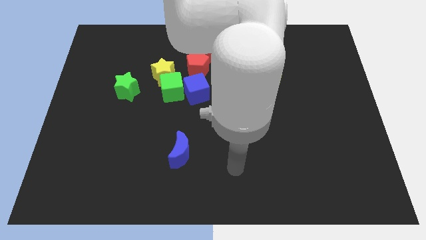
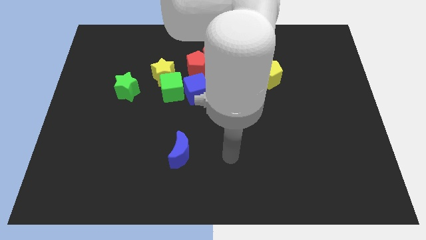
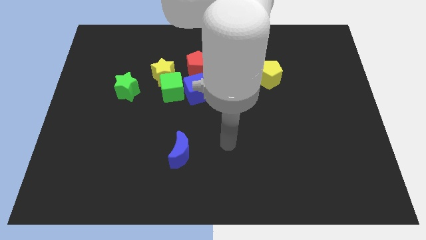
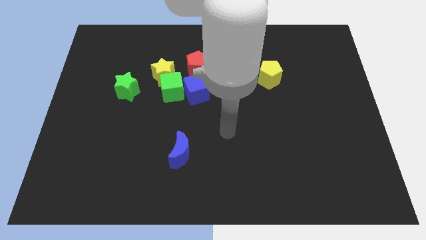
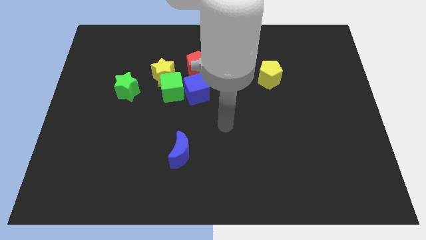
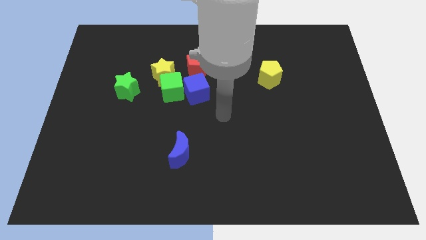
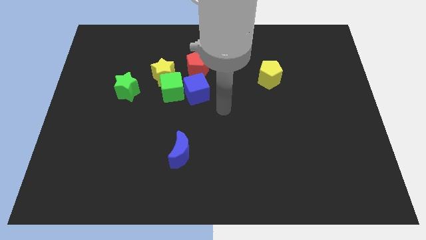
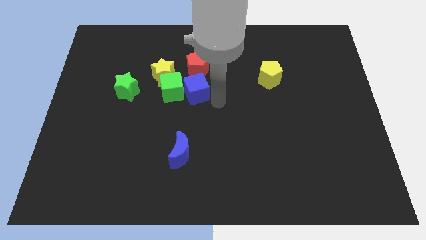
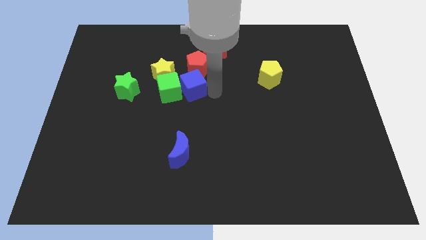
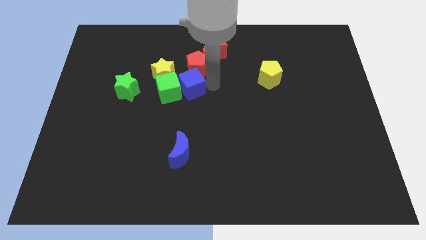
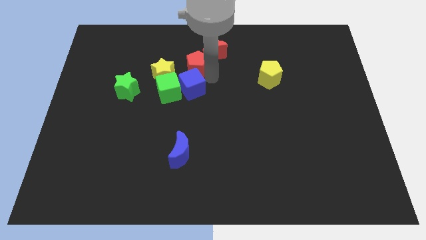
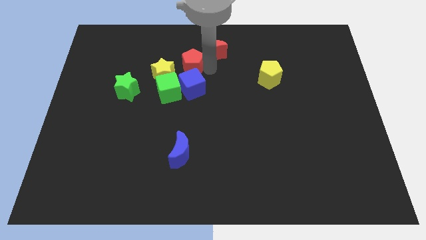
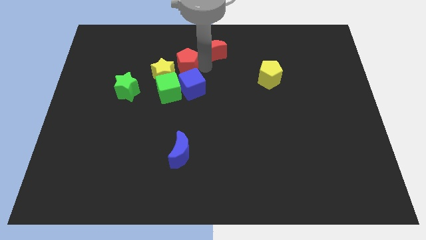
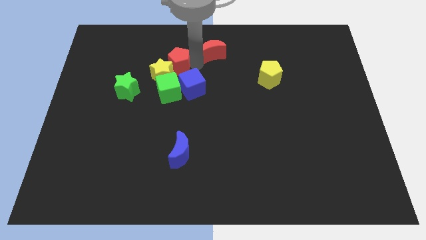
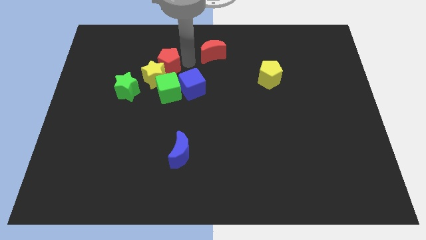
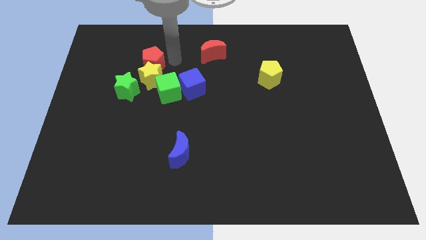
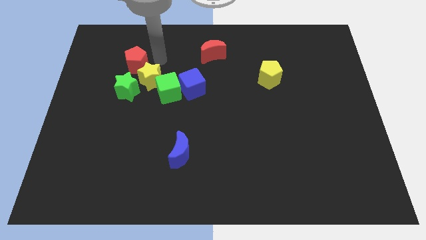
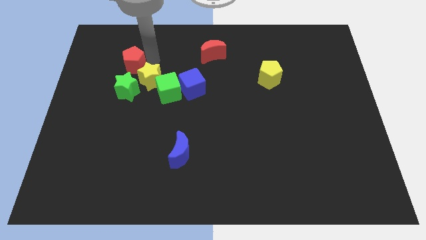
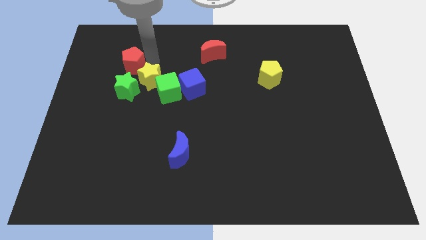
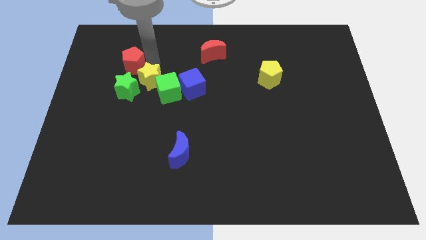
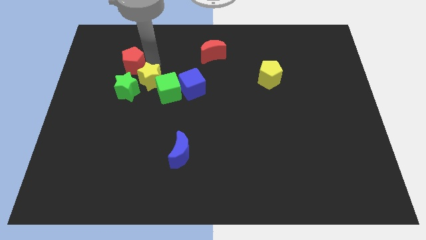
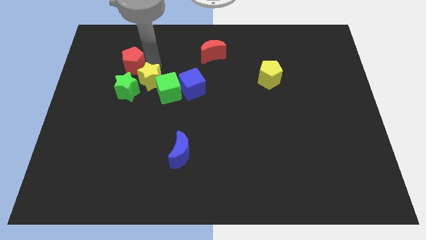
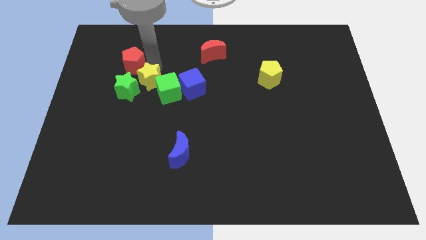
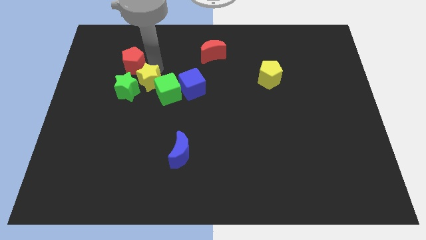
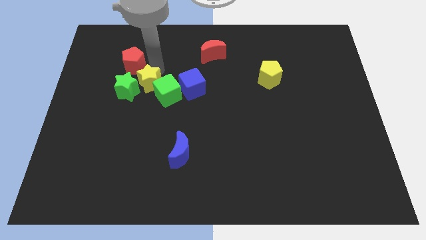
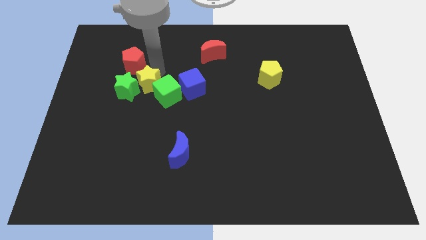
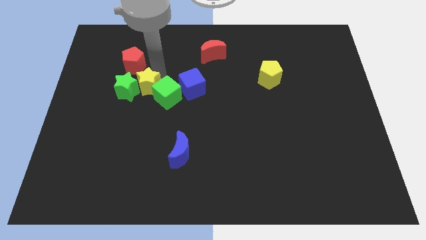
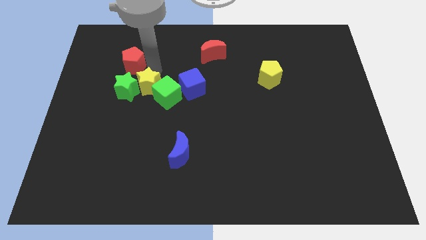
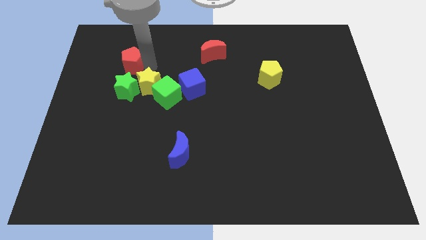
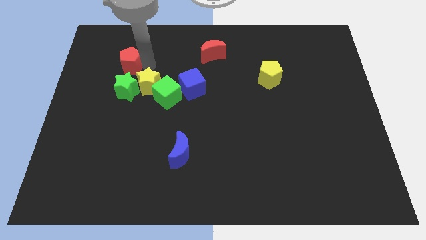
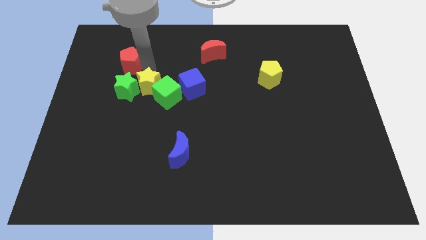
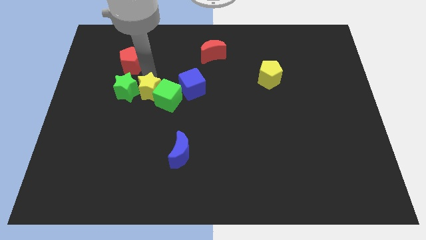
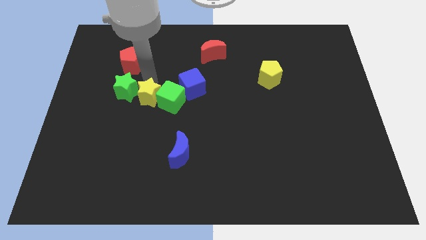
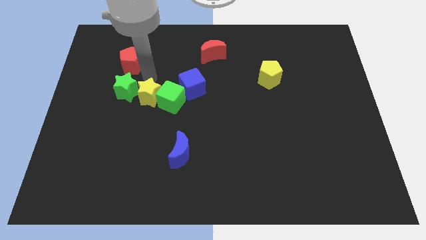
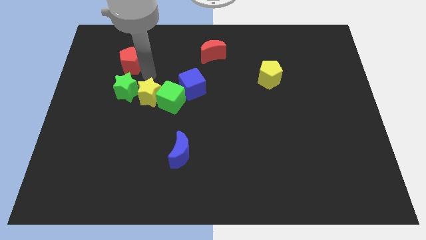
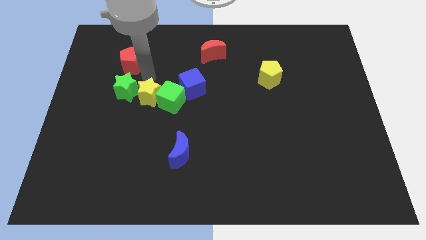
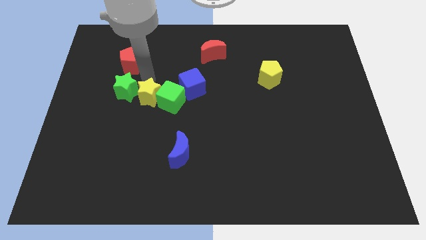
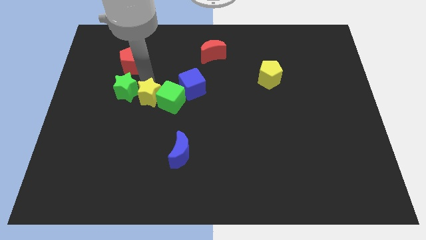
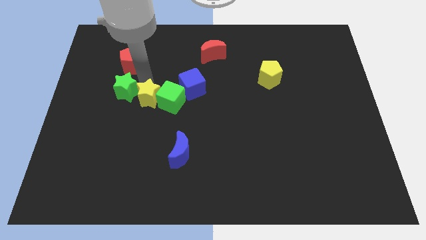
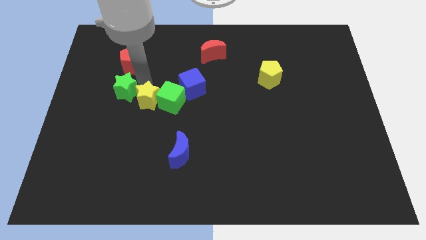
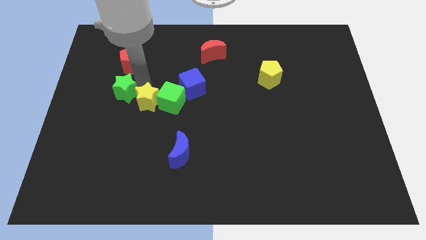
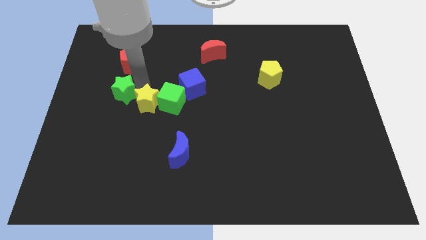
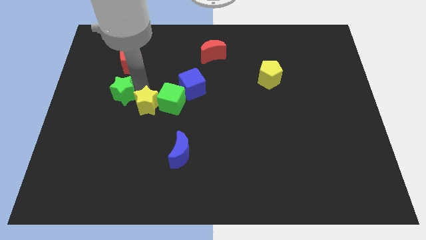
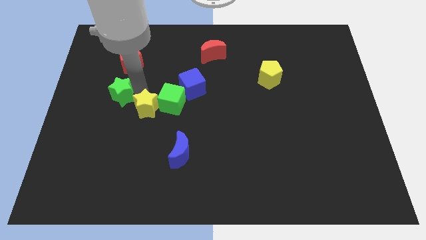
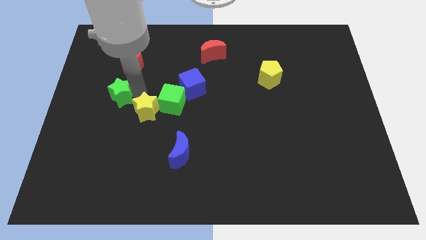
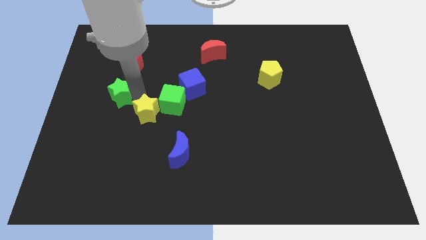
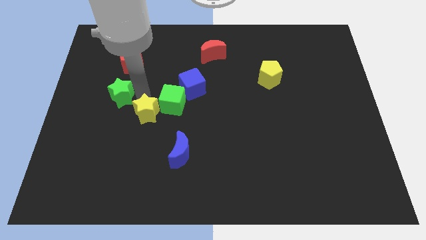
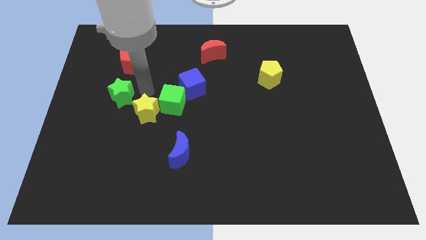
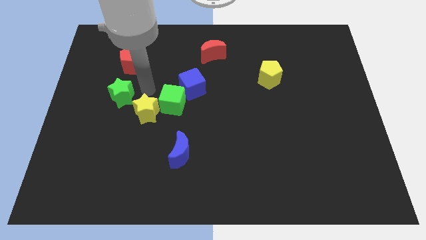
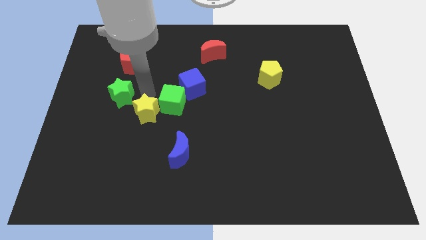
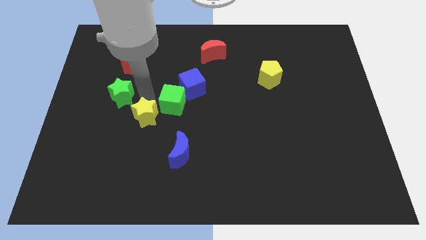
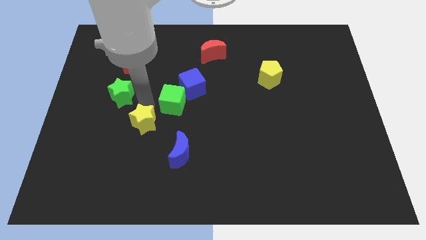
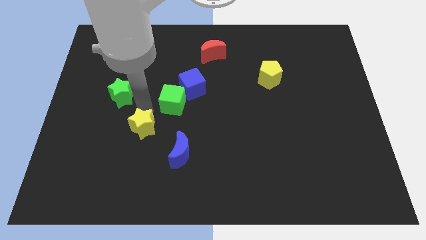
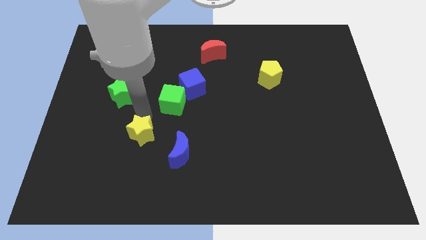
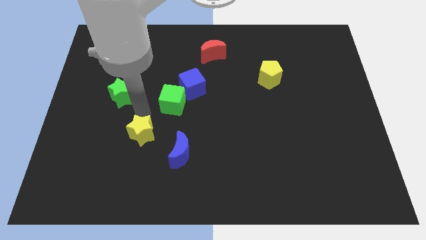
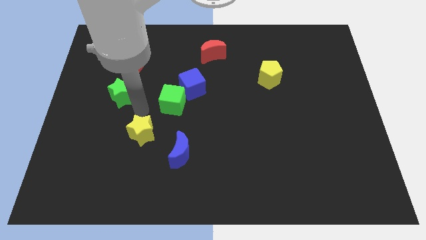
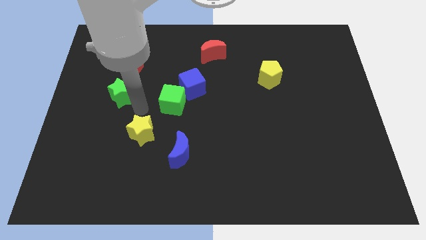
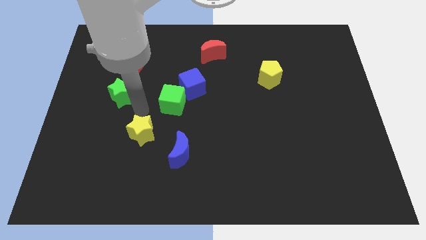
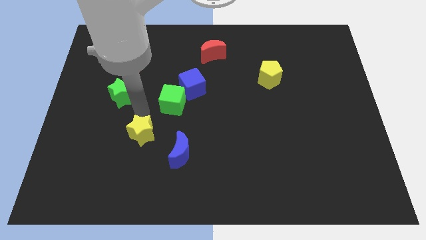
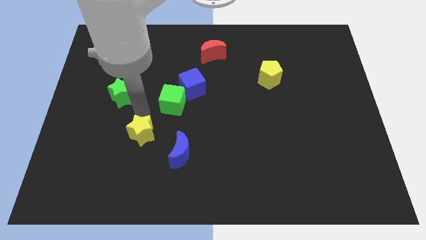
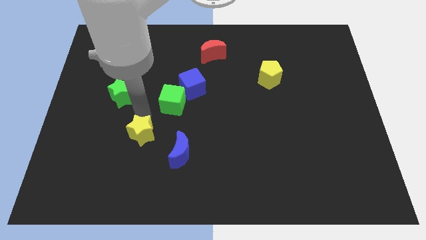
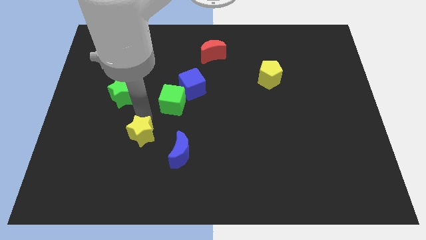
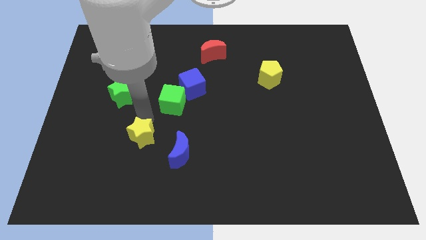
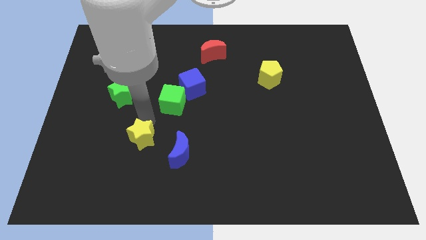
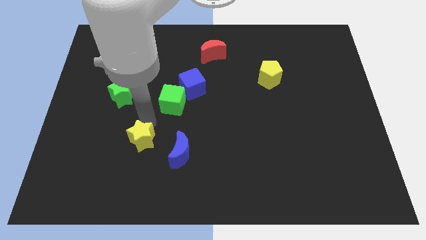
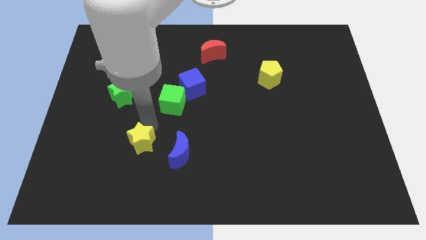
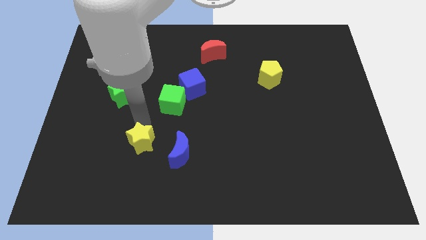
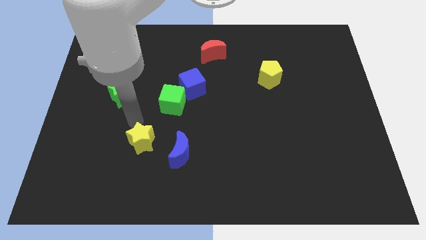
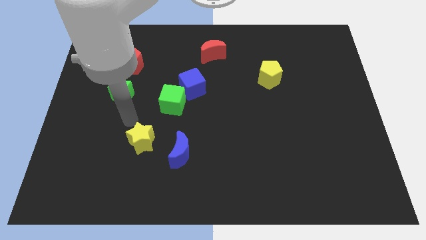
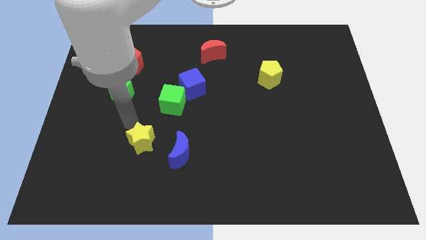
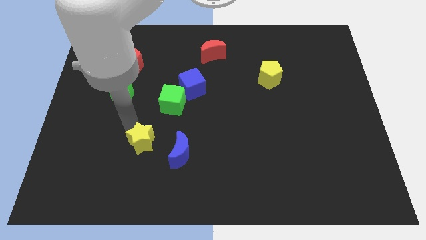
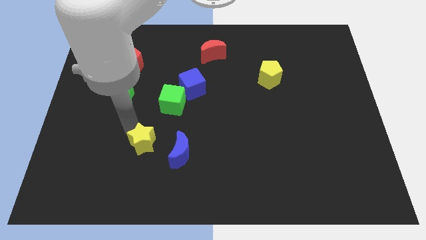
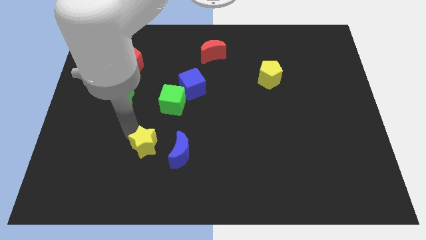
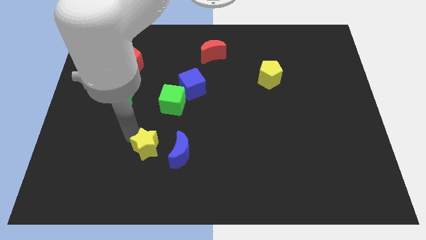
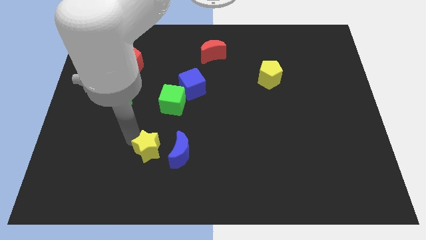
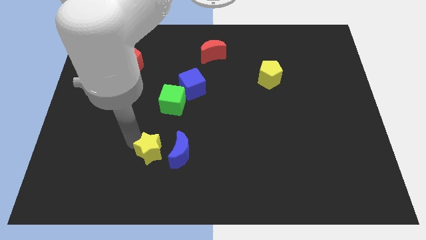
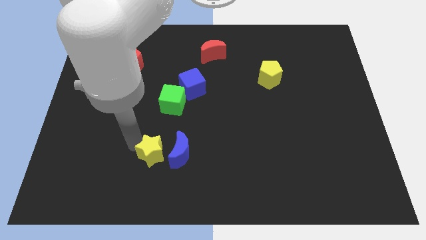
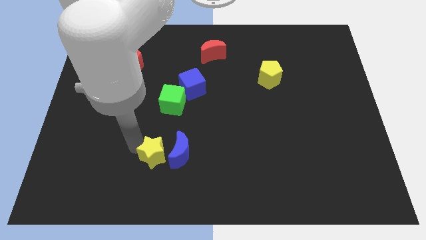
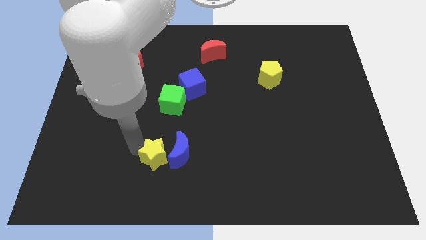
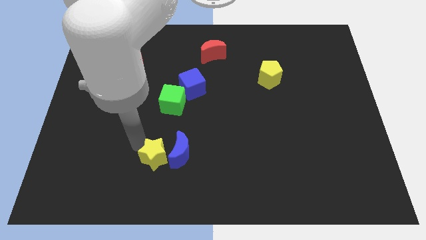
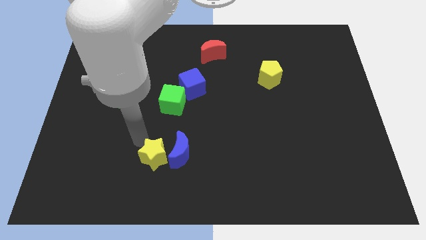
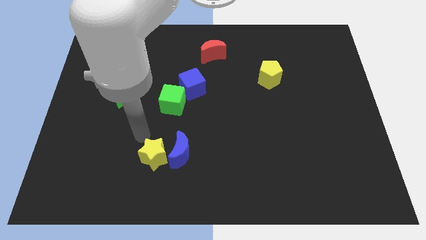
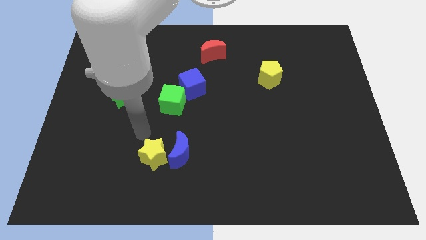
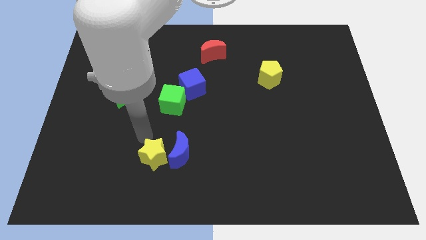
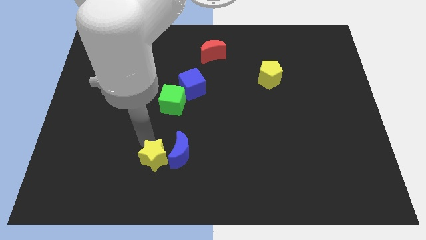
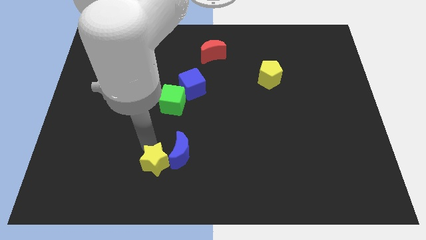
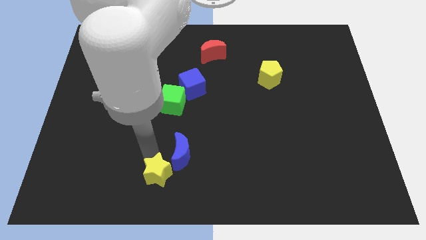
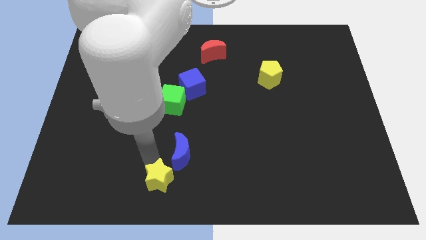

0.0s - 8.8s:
slide the yellow star to the bottom side
